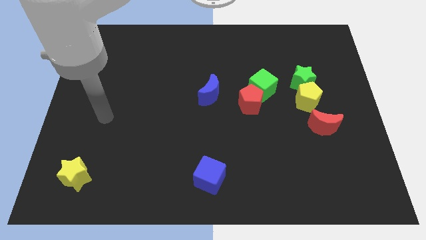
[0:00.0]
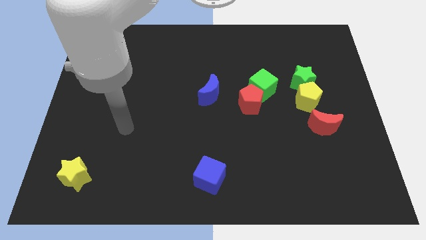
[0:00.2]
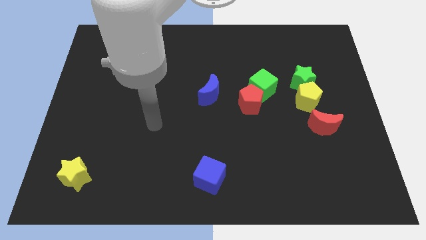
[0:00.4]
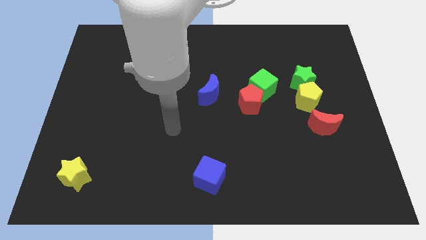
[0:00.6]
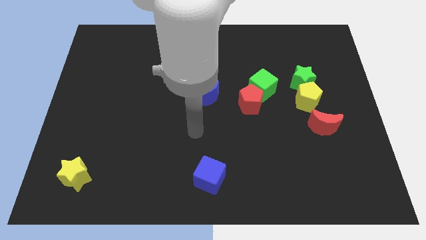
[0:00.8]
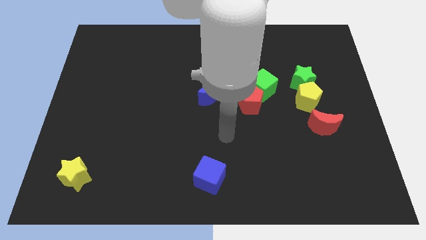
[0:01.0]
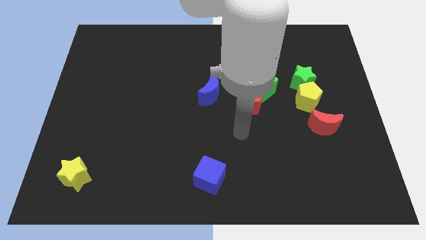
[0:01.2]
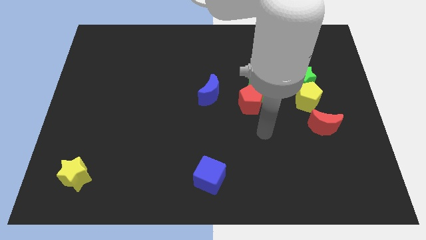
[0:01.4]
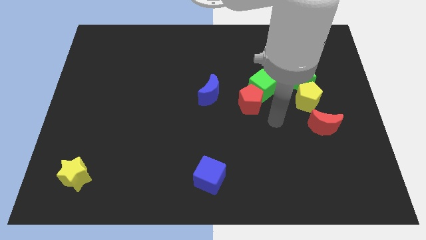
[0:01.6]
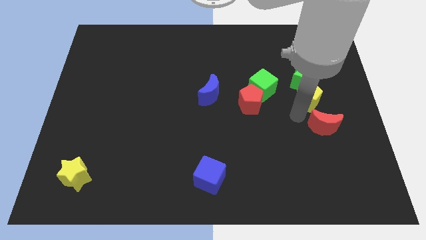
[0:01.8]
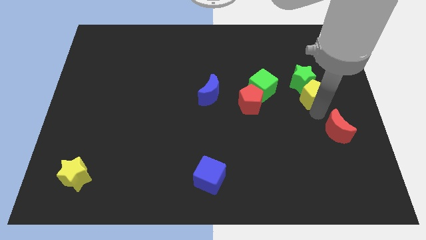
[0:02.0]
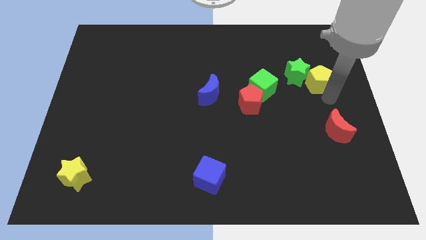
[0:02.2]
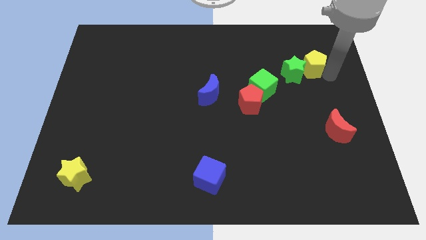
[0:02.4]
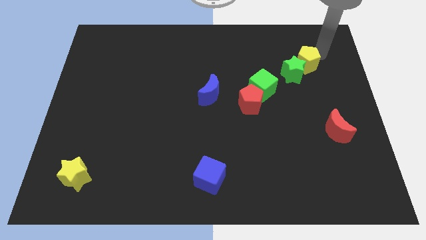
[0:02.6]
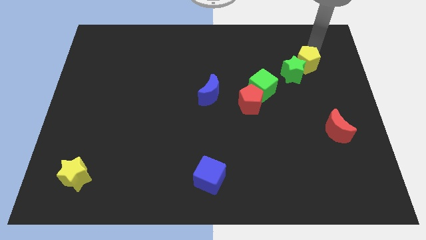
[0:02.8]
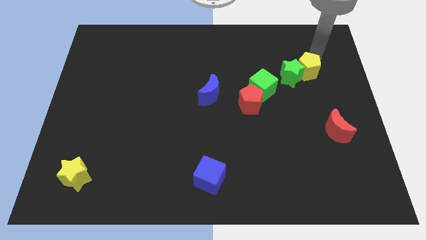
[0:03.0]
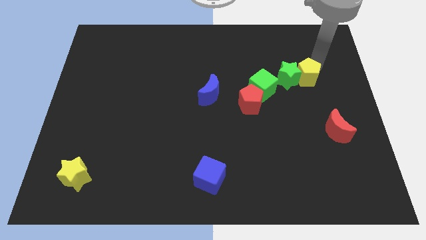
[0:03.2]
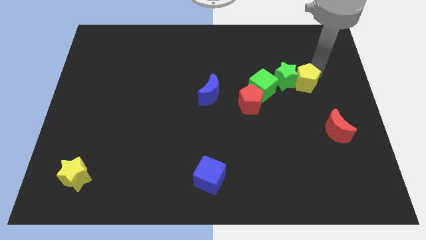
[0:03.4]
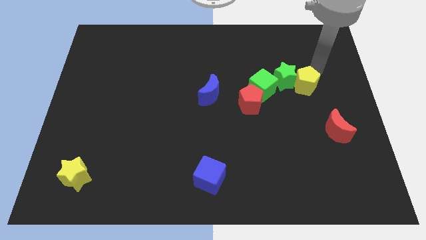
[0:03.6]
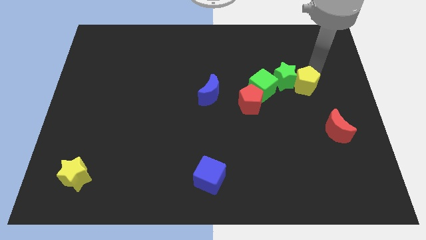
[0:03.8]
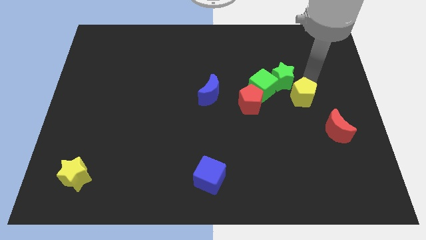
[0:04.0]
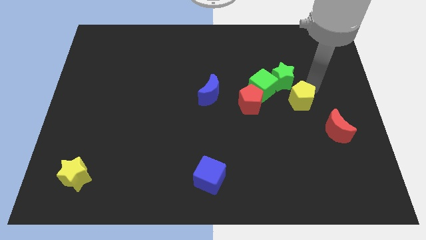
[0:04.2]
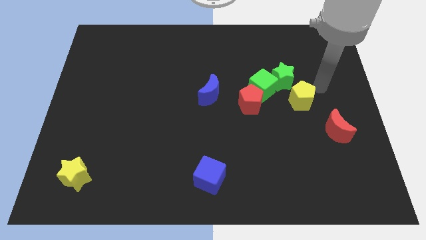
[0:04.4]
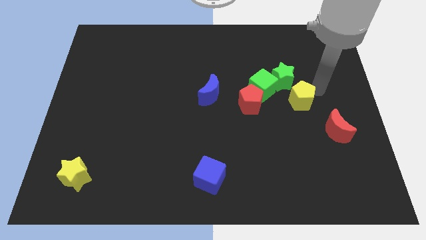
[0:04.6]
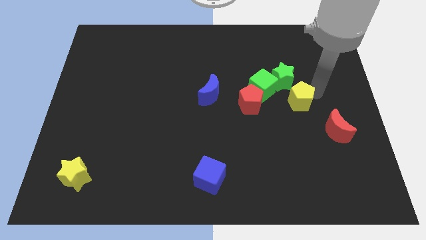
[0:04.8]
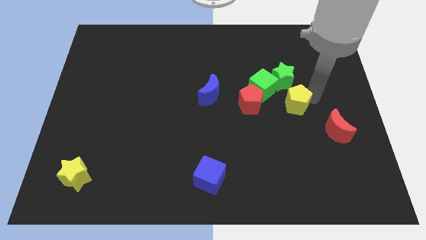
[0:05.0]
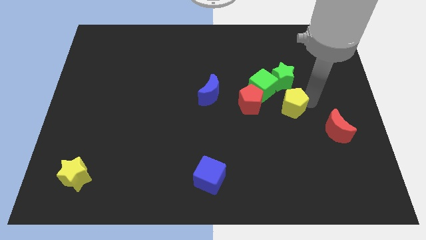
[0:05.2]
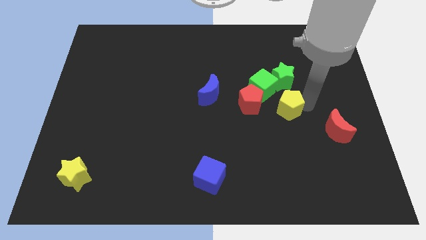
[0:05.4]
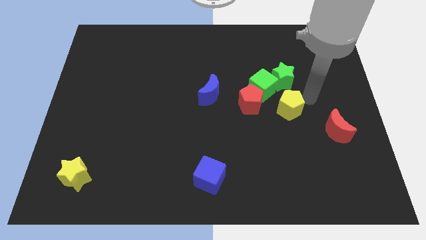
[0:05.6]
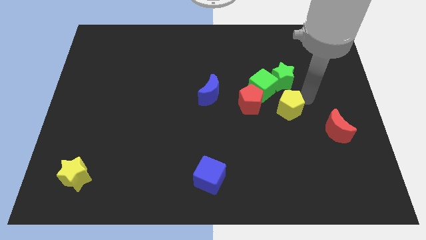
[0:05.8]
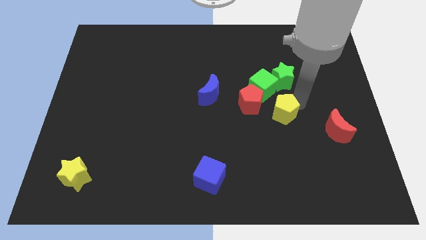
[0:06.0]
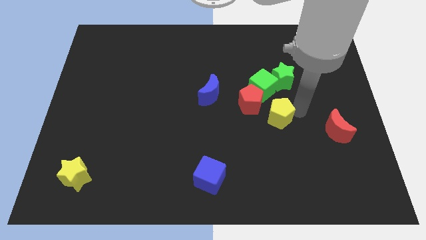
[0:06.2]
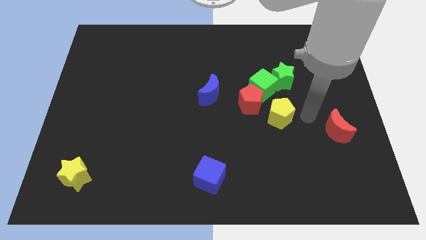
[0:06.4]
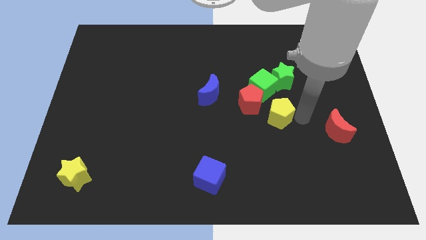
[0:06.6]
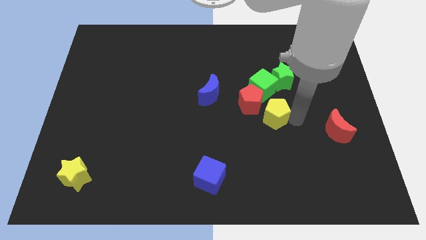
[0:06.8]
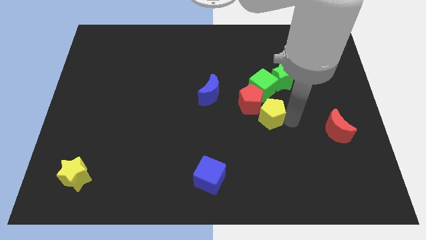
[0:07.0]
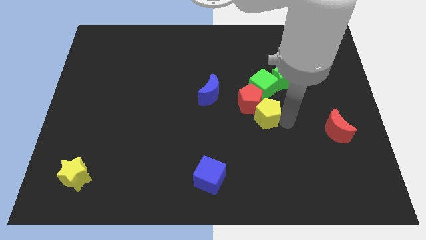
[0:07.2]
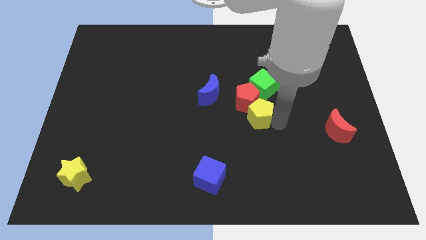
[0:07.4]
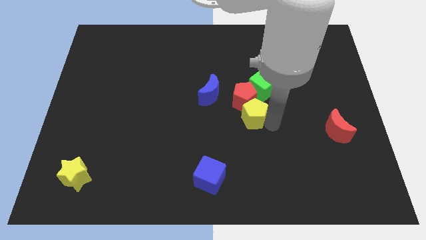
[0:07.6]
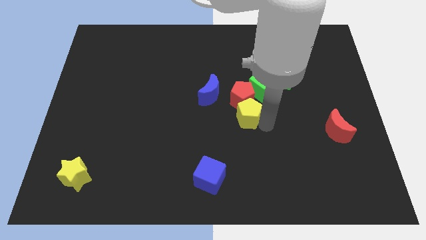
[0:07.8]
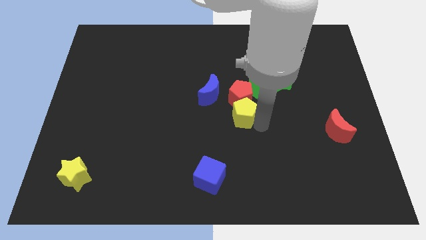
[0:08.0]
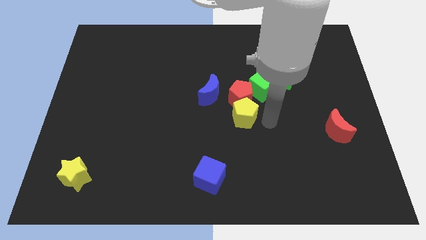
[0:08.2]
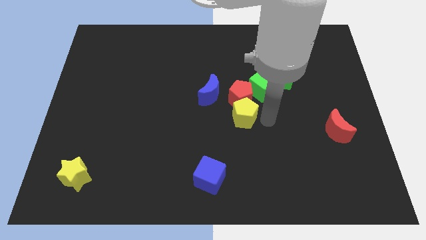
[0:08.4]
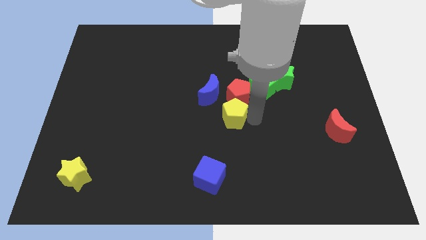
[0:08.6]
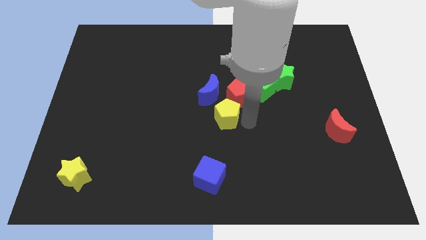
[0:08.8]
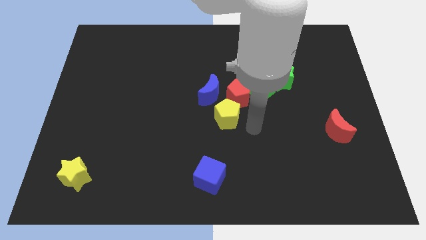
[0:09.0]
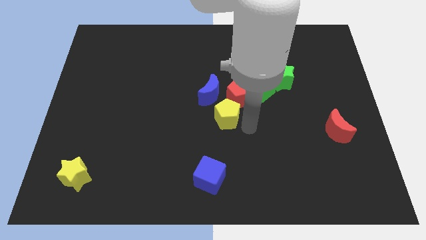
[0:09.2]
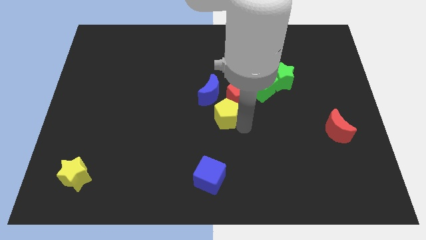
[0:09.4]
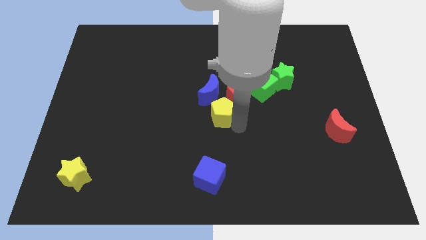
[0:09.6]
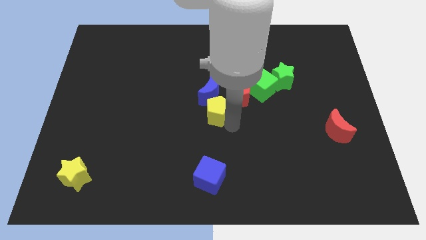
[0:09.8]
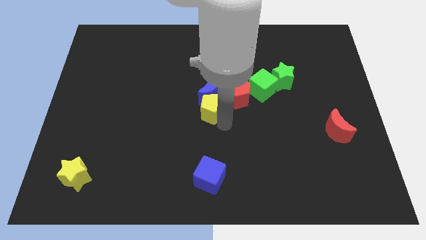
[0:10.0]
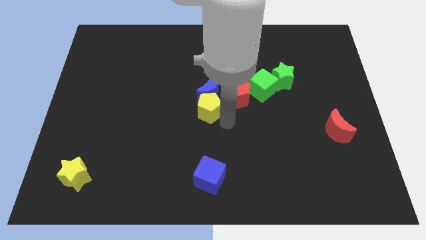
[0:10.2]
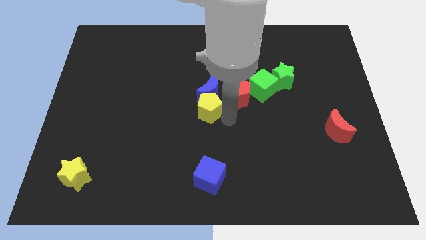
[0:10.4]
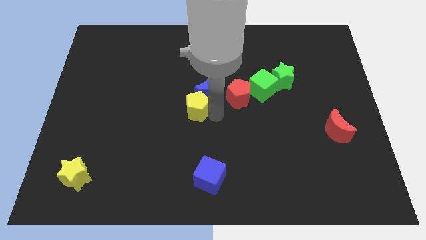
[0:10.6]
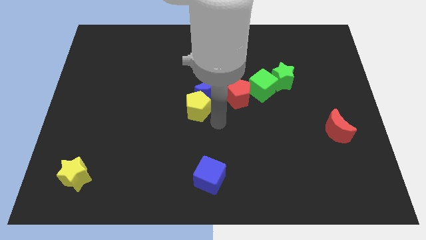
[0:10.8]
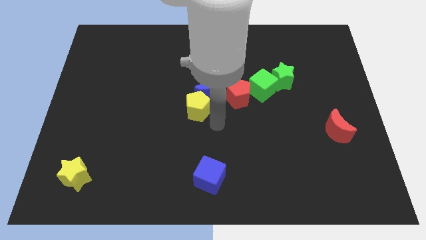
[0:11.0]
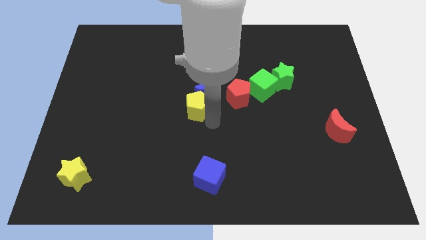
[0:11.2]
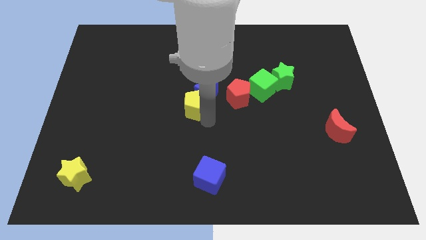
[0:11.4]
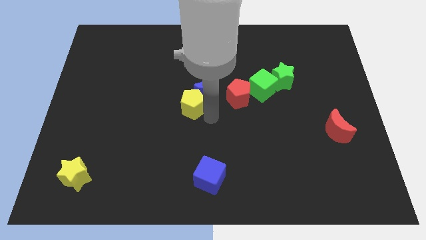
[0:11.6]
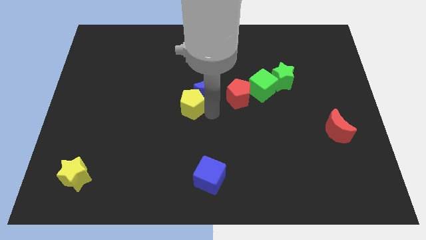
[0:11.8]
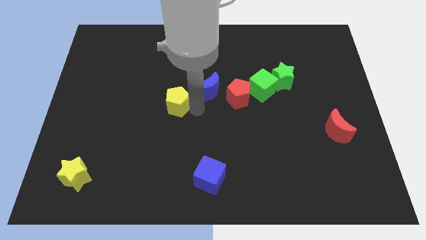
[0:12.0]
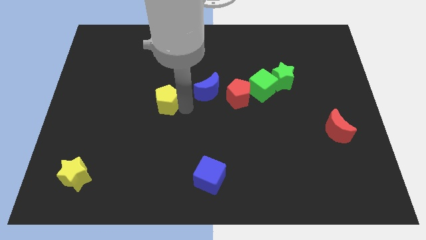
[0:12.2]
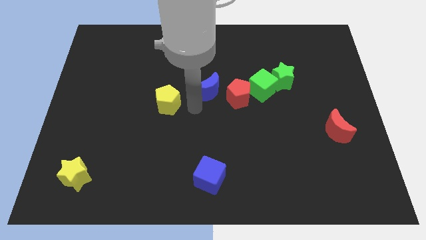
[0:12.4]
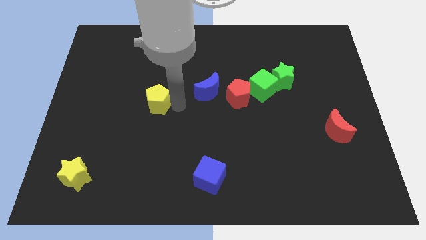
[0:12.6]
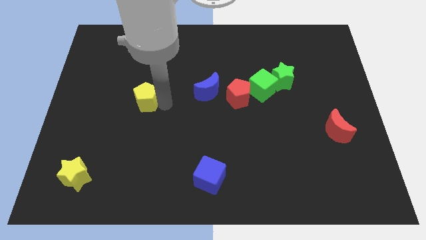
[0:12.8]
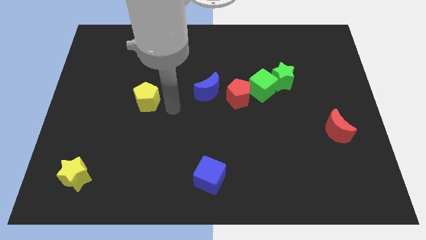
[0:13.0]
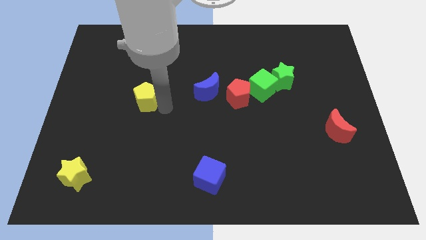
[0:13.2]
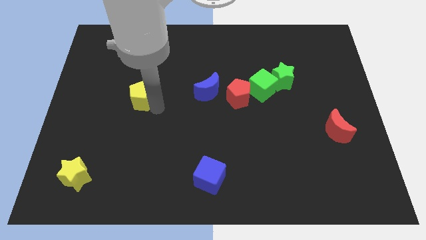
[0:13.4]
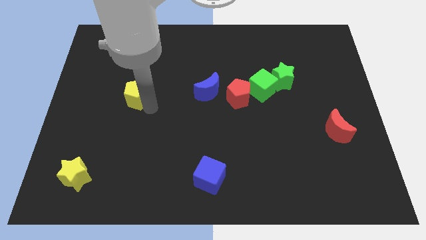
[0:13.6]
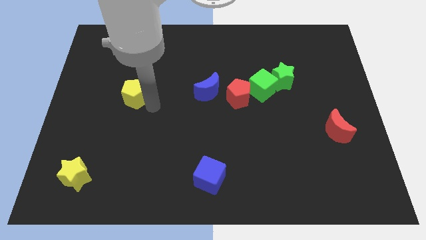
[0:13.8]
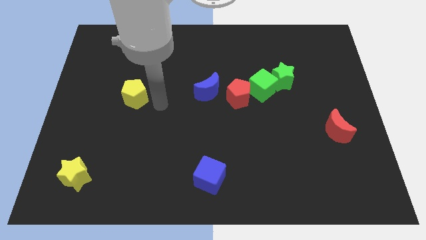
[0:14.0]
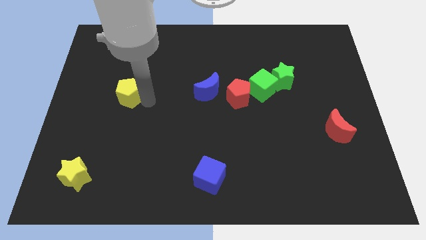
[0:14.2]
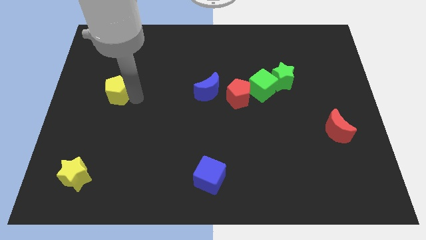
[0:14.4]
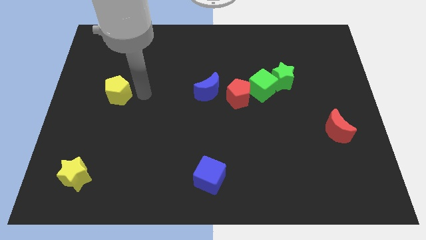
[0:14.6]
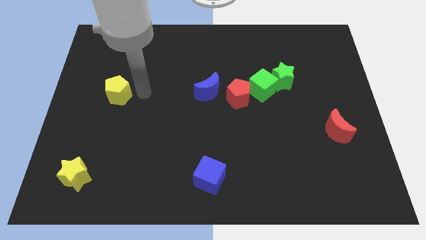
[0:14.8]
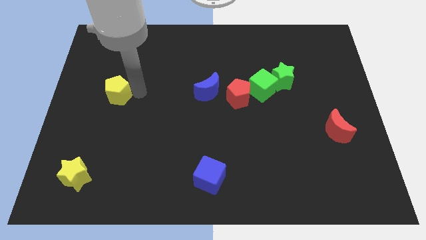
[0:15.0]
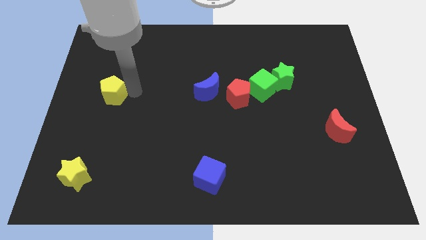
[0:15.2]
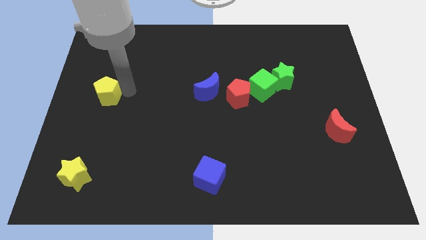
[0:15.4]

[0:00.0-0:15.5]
put the yellow pentagon to the center left
